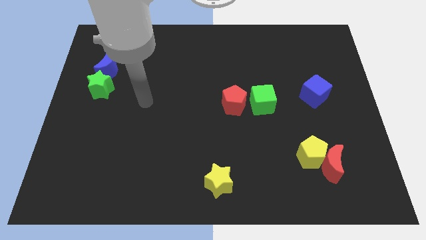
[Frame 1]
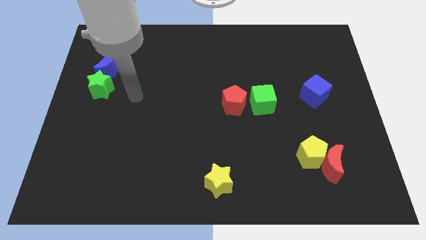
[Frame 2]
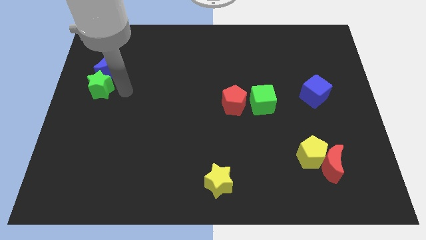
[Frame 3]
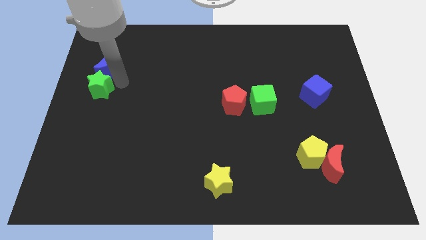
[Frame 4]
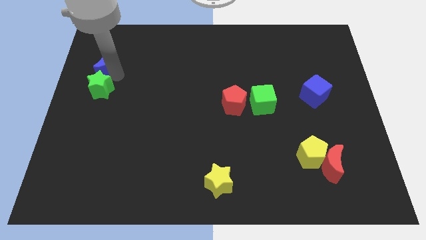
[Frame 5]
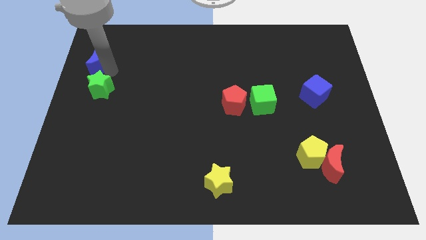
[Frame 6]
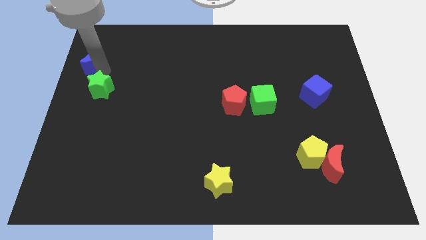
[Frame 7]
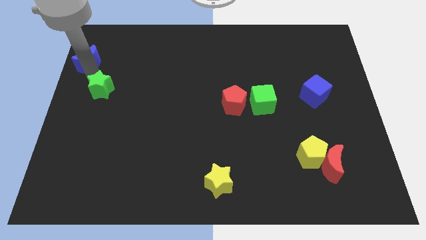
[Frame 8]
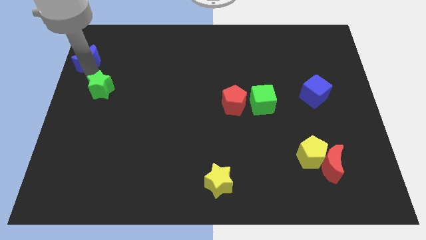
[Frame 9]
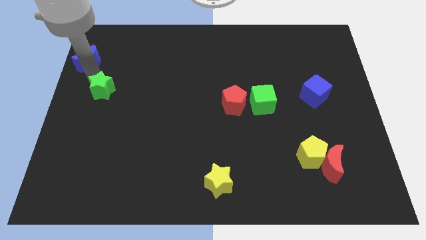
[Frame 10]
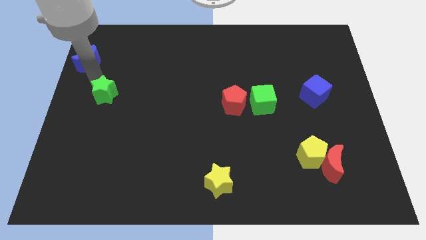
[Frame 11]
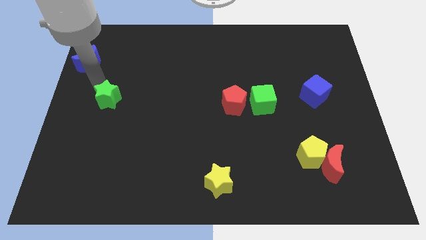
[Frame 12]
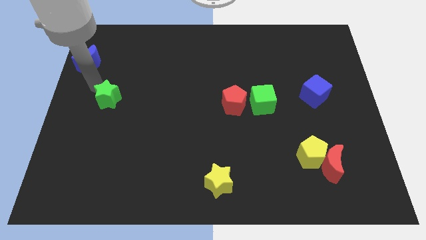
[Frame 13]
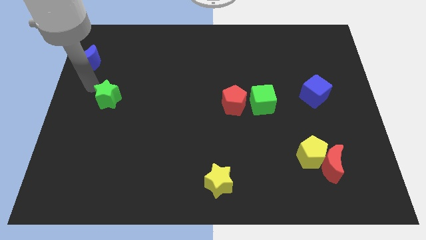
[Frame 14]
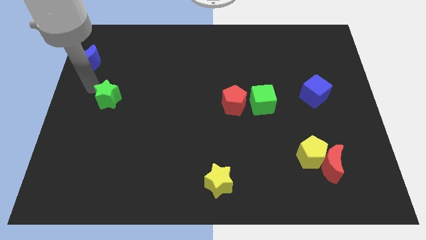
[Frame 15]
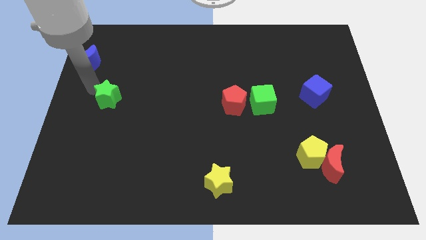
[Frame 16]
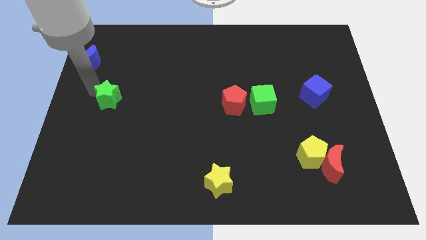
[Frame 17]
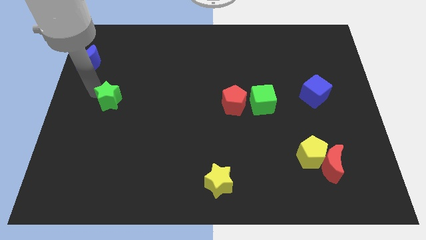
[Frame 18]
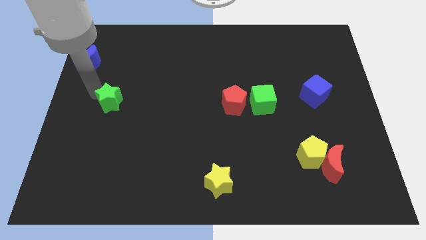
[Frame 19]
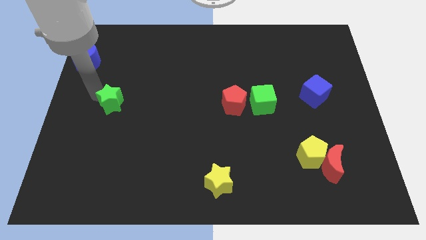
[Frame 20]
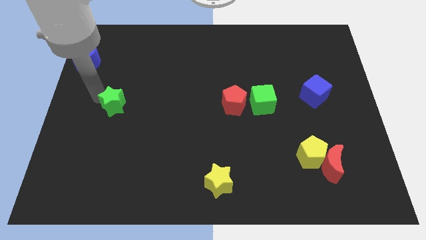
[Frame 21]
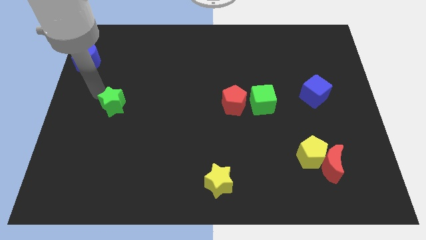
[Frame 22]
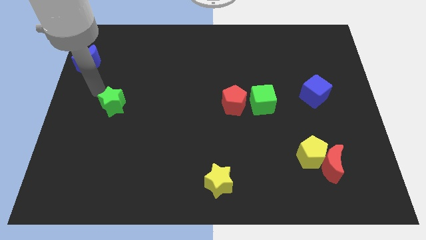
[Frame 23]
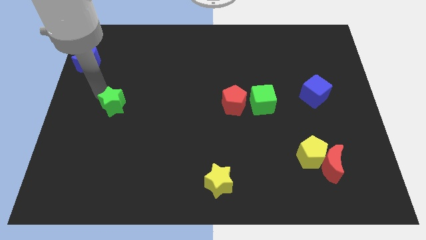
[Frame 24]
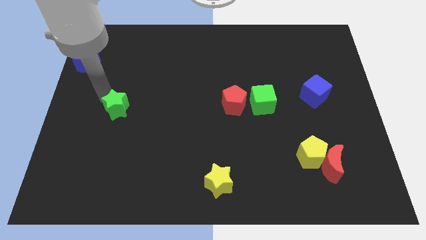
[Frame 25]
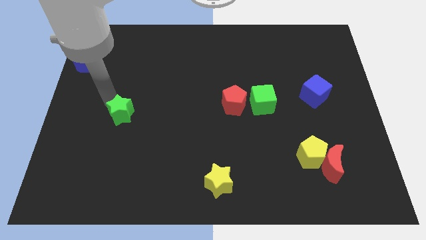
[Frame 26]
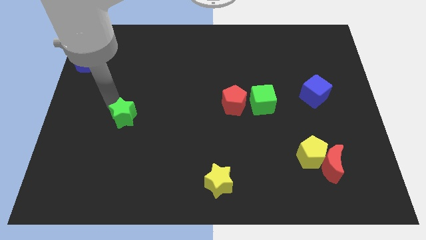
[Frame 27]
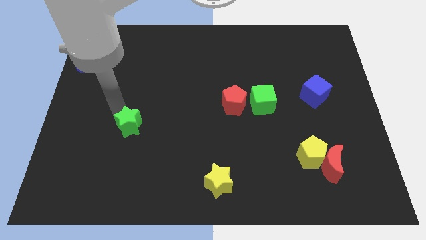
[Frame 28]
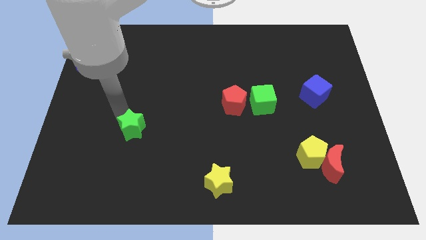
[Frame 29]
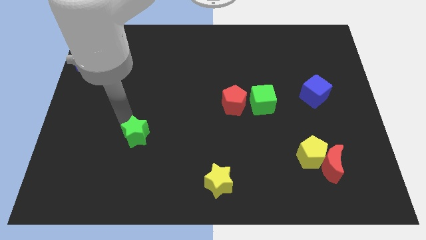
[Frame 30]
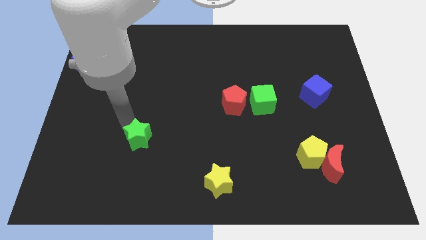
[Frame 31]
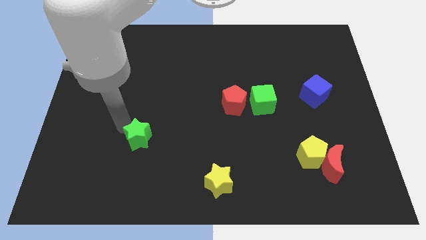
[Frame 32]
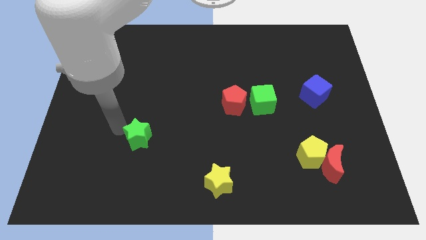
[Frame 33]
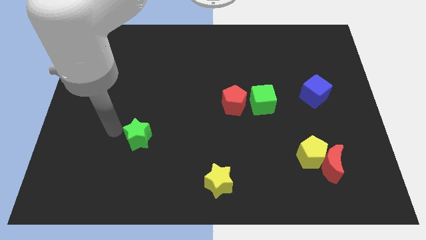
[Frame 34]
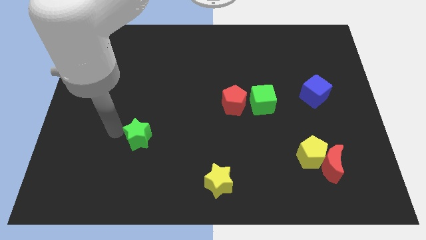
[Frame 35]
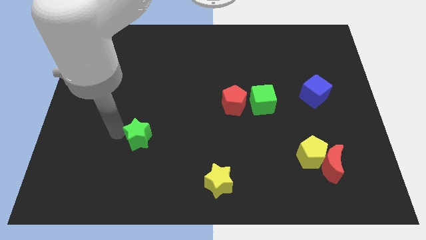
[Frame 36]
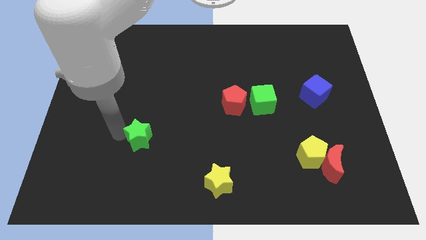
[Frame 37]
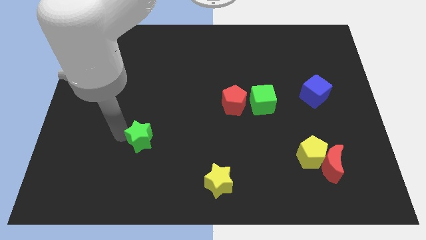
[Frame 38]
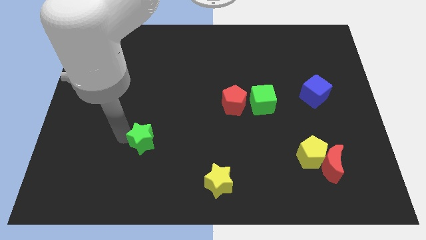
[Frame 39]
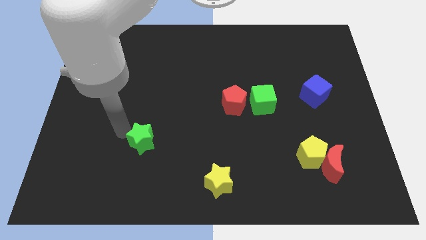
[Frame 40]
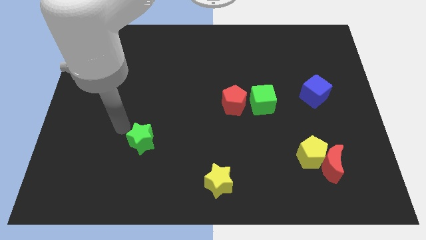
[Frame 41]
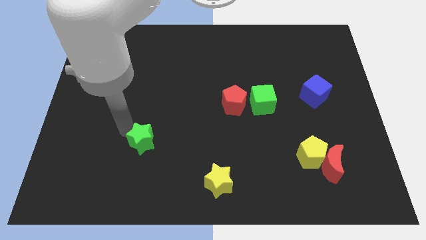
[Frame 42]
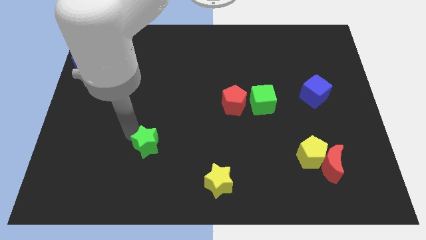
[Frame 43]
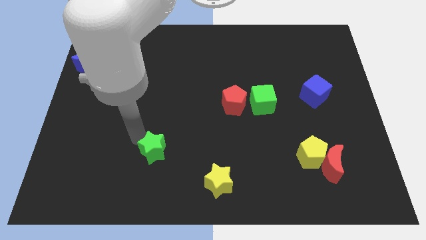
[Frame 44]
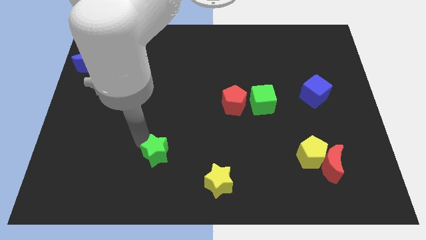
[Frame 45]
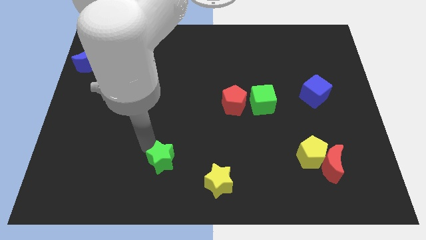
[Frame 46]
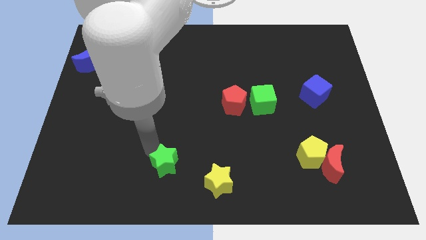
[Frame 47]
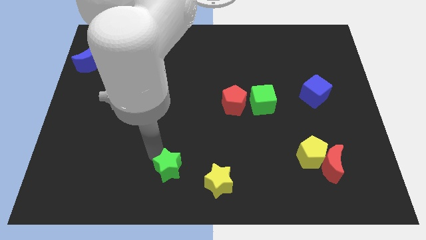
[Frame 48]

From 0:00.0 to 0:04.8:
put the green star to the bottom

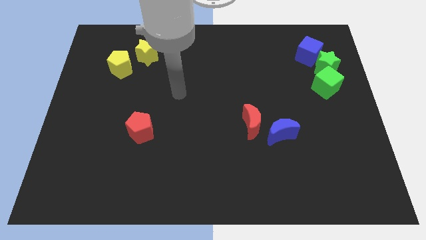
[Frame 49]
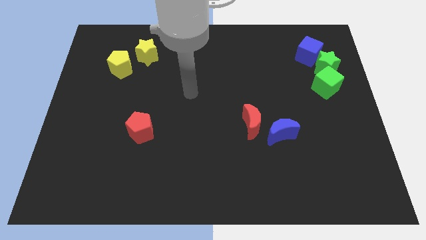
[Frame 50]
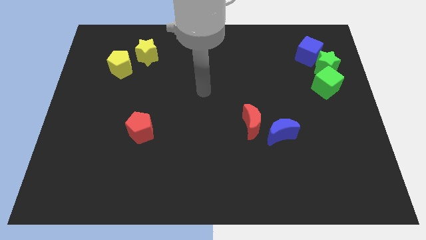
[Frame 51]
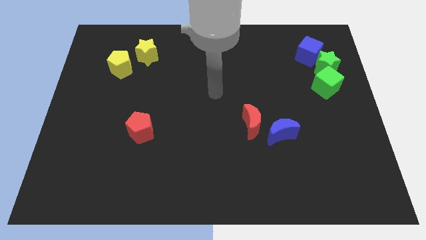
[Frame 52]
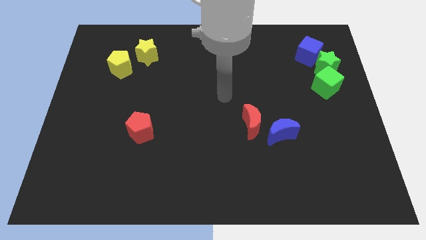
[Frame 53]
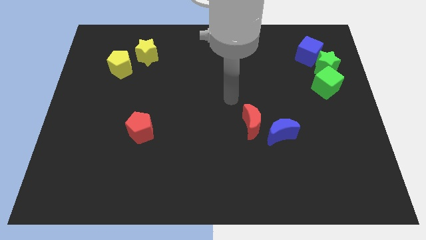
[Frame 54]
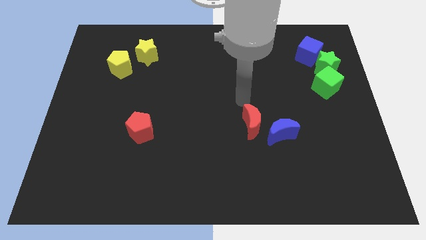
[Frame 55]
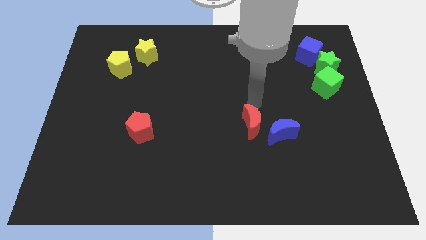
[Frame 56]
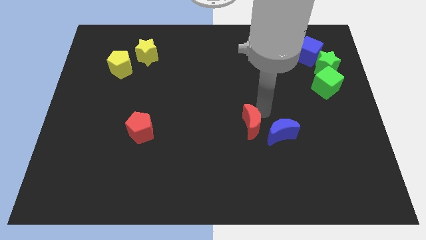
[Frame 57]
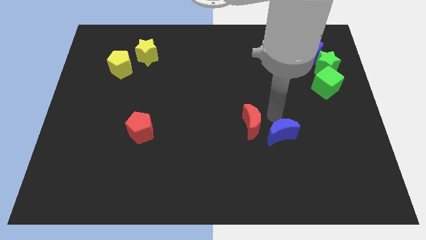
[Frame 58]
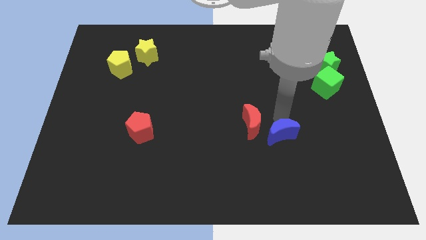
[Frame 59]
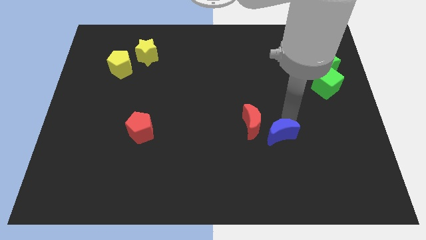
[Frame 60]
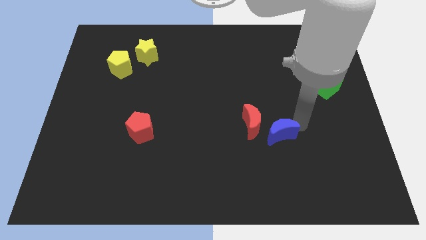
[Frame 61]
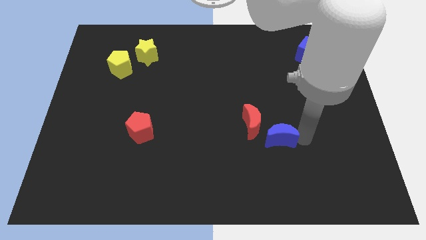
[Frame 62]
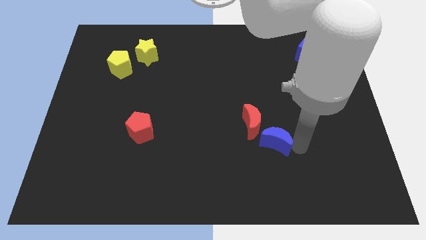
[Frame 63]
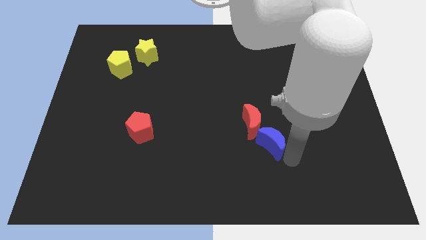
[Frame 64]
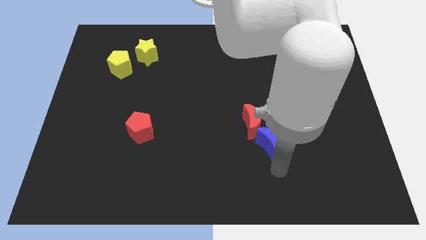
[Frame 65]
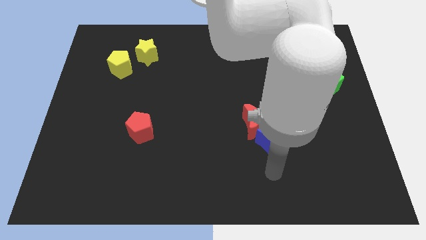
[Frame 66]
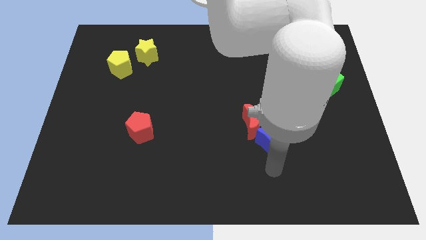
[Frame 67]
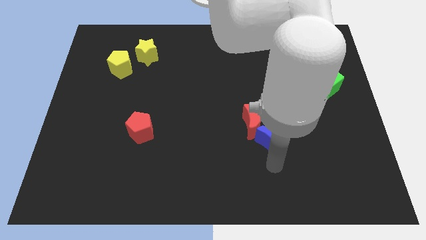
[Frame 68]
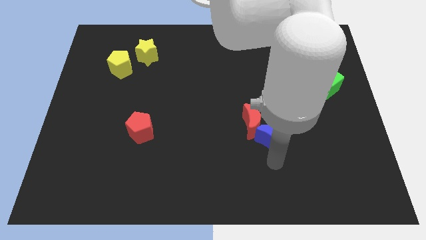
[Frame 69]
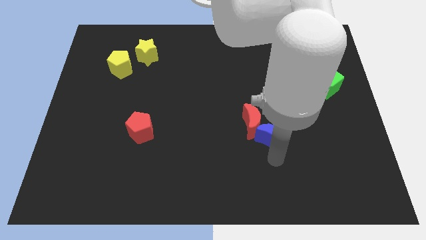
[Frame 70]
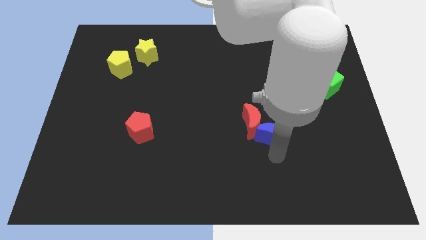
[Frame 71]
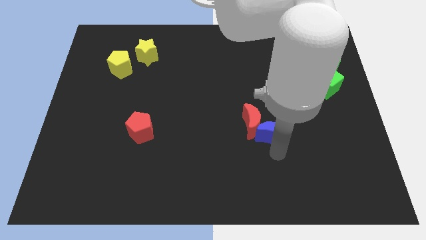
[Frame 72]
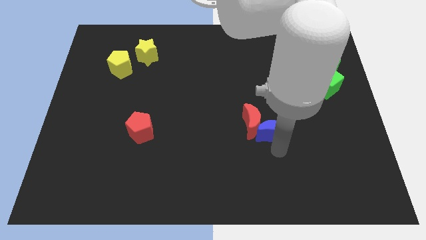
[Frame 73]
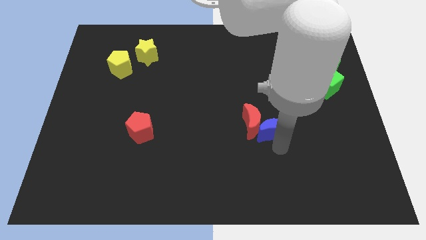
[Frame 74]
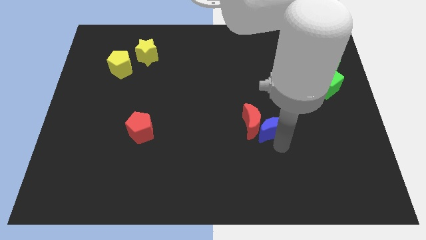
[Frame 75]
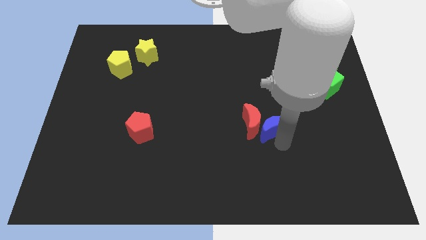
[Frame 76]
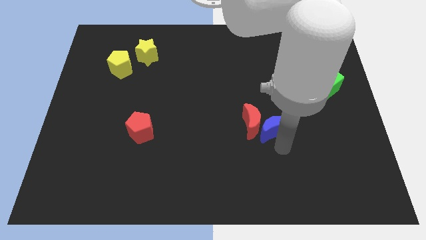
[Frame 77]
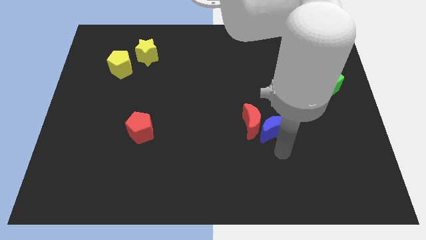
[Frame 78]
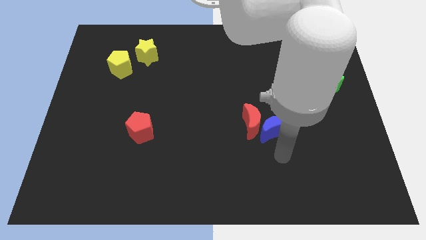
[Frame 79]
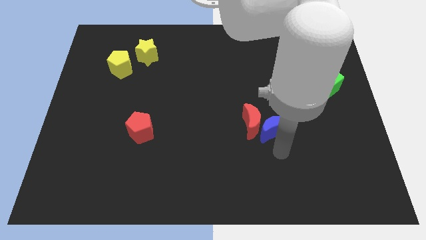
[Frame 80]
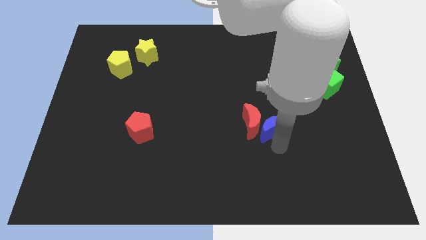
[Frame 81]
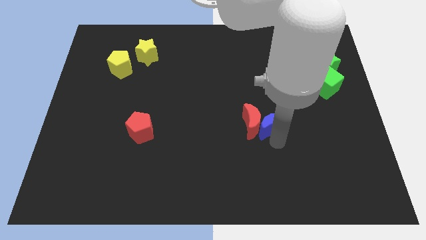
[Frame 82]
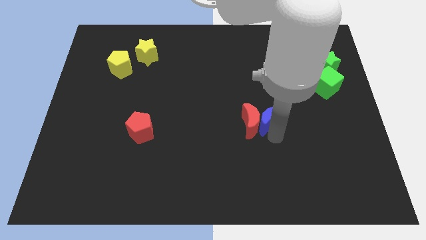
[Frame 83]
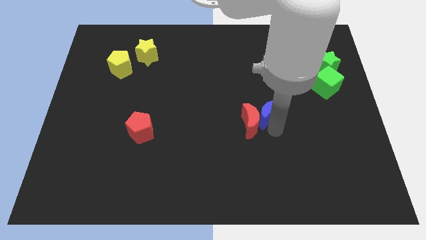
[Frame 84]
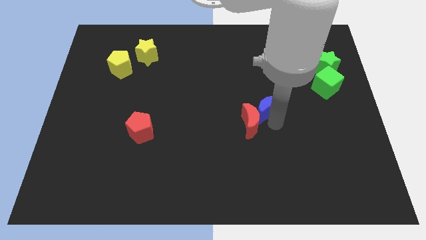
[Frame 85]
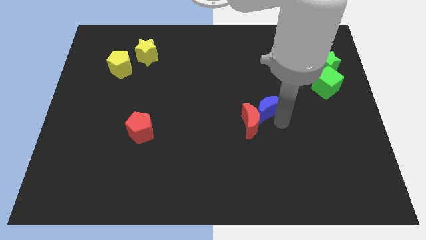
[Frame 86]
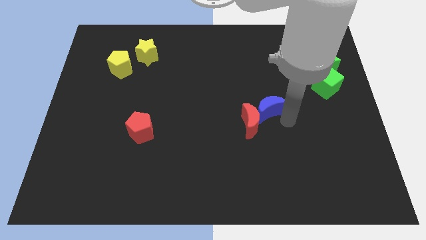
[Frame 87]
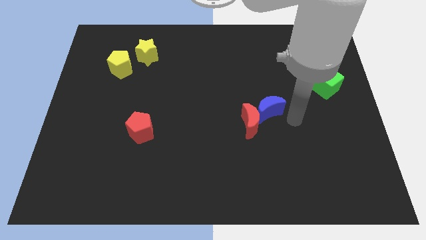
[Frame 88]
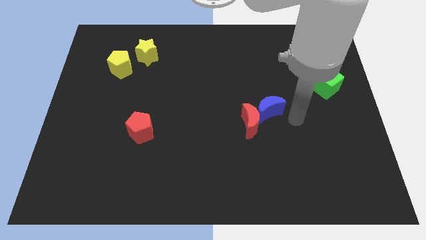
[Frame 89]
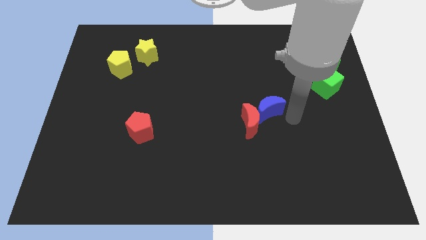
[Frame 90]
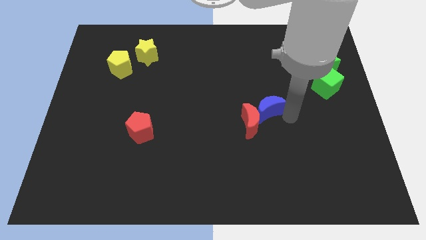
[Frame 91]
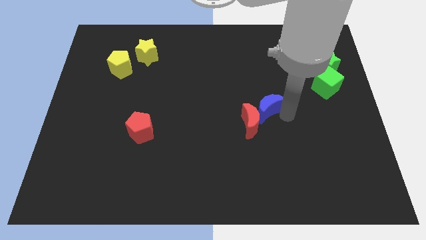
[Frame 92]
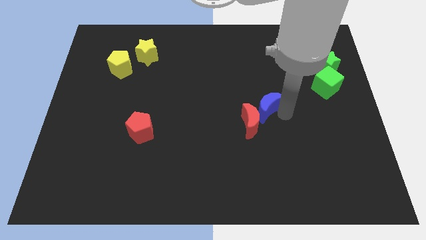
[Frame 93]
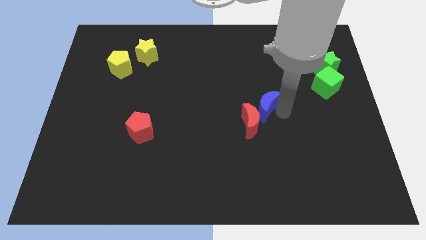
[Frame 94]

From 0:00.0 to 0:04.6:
slide the blue moon to the center
